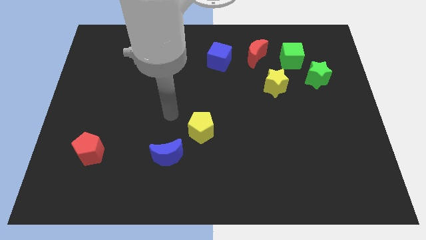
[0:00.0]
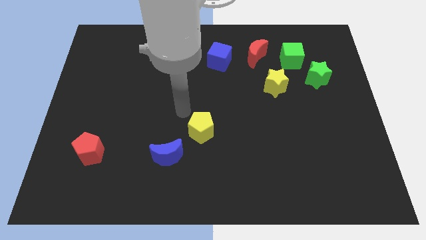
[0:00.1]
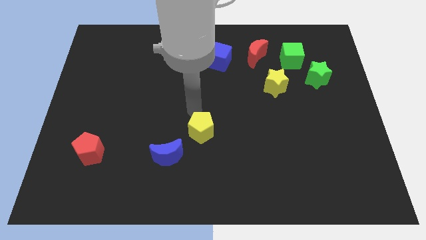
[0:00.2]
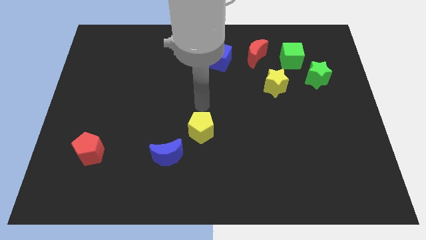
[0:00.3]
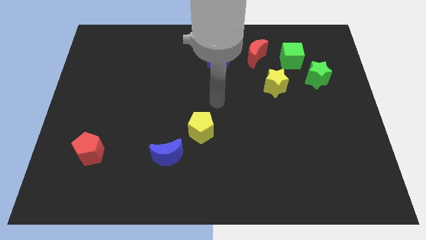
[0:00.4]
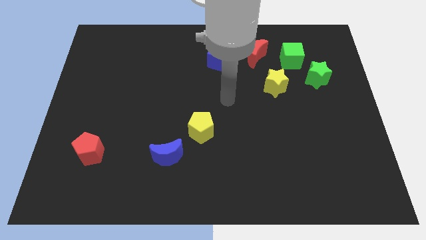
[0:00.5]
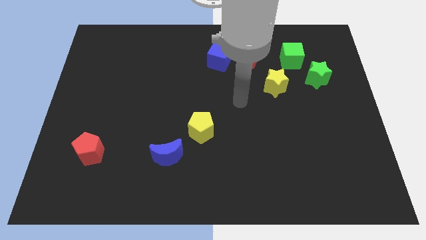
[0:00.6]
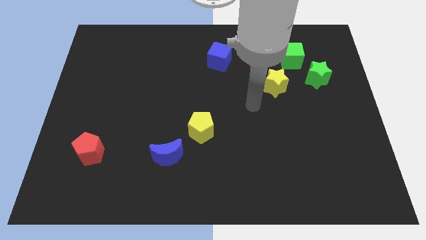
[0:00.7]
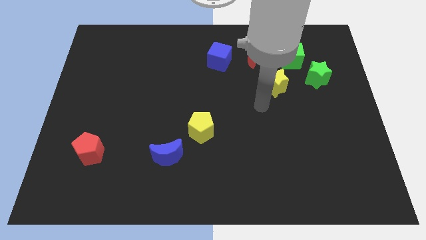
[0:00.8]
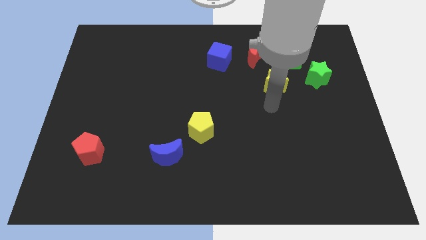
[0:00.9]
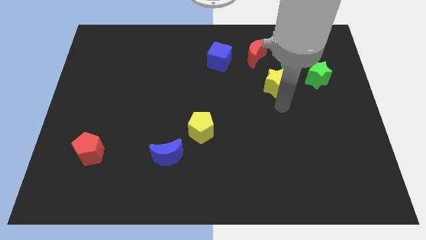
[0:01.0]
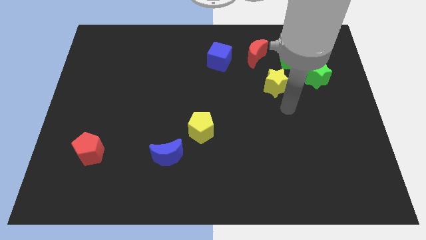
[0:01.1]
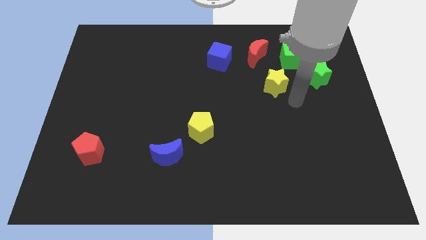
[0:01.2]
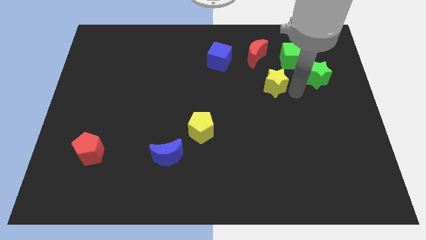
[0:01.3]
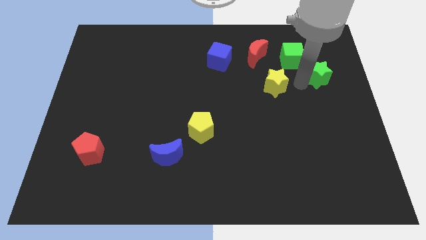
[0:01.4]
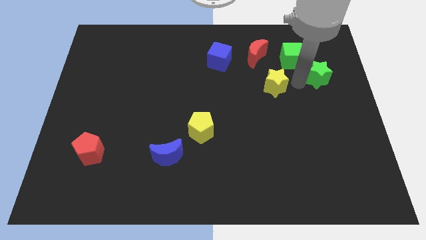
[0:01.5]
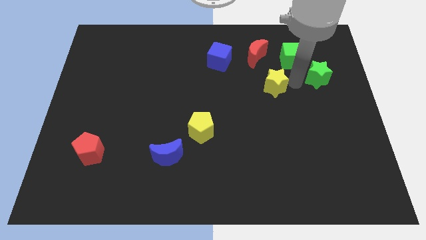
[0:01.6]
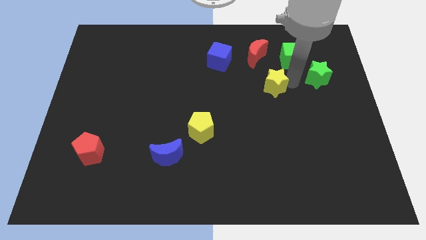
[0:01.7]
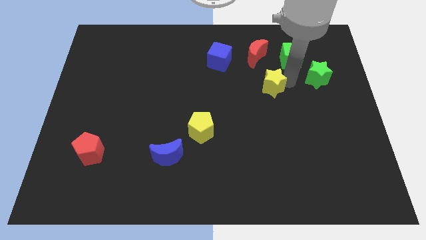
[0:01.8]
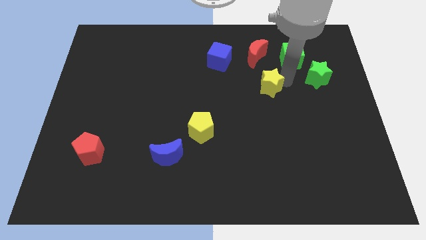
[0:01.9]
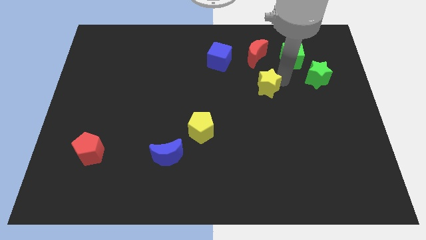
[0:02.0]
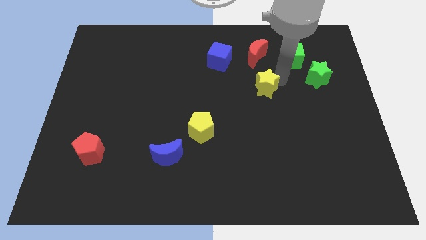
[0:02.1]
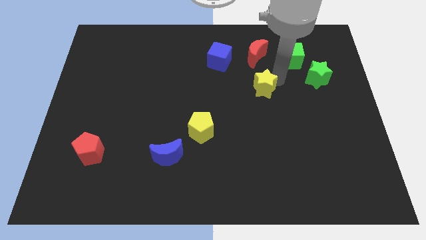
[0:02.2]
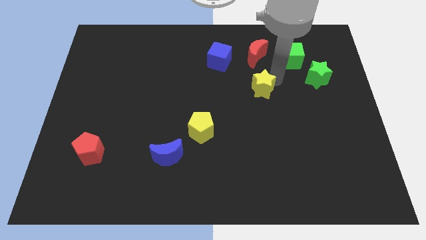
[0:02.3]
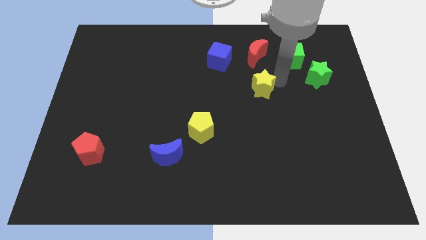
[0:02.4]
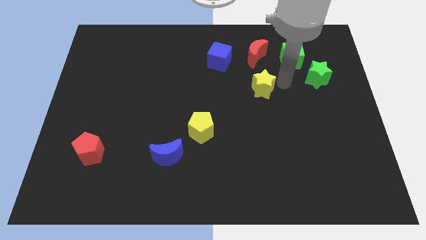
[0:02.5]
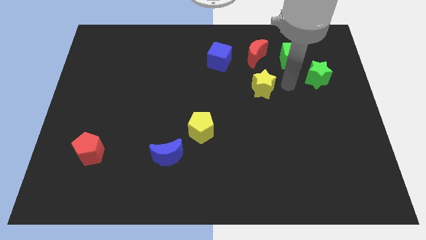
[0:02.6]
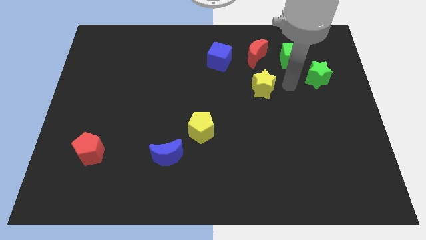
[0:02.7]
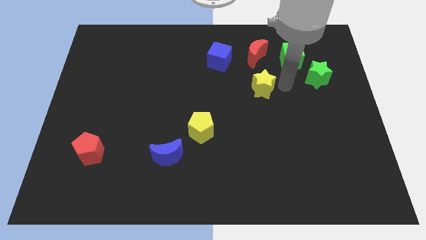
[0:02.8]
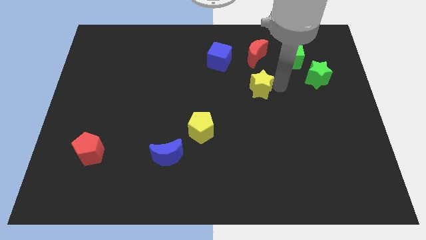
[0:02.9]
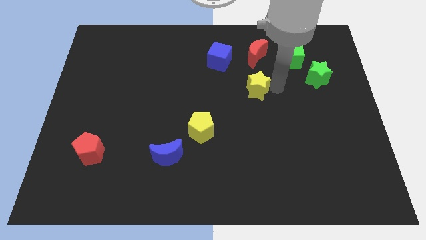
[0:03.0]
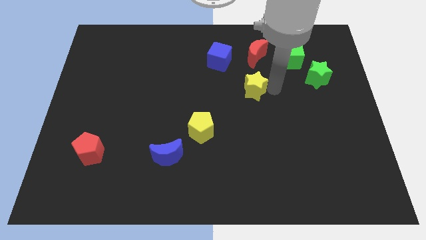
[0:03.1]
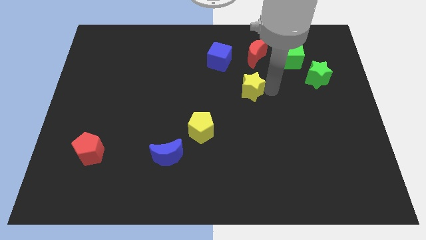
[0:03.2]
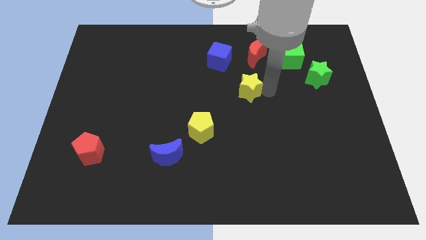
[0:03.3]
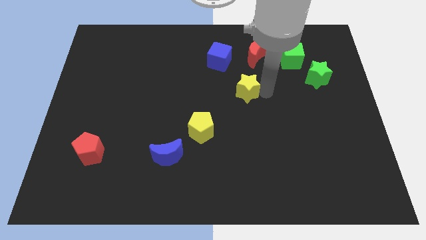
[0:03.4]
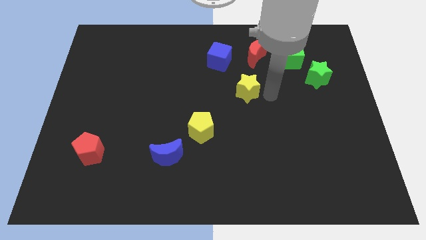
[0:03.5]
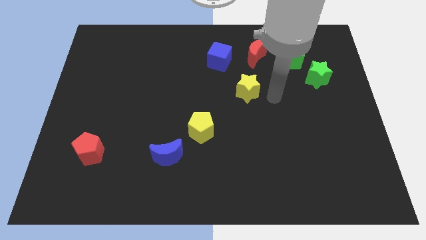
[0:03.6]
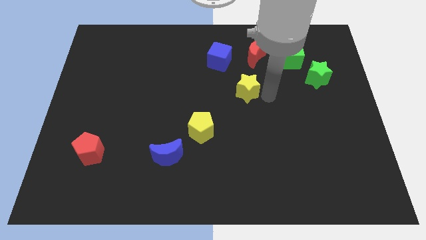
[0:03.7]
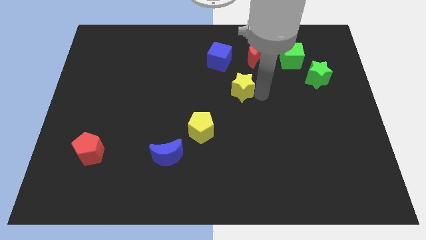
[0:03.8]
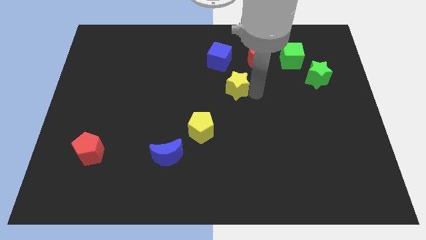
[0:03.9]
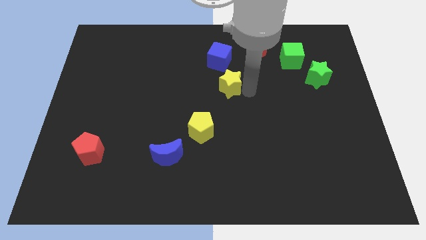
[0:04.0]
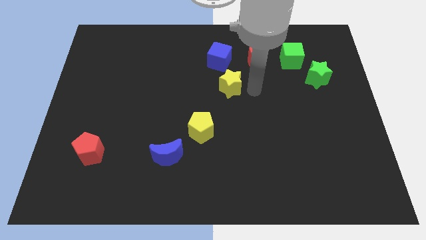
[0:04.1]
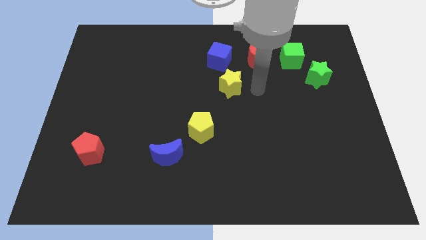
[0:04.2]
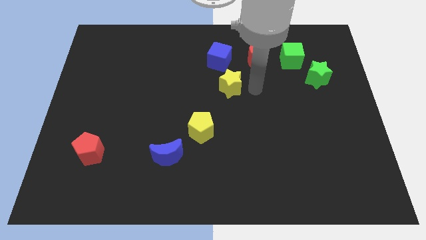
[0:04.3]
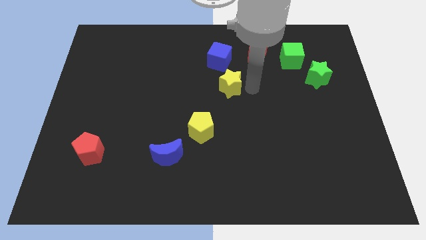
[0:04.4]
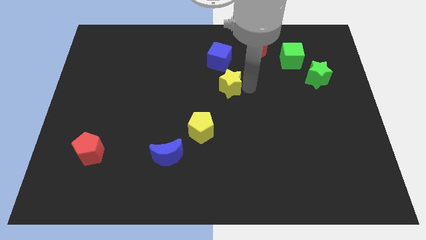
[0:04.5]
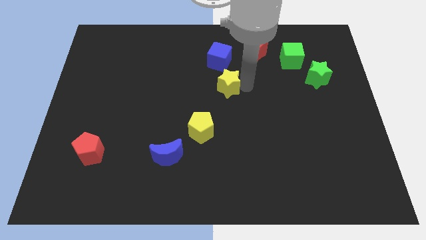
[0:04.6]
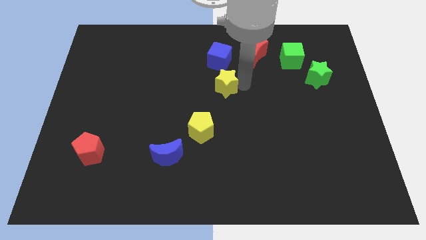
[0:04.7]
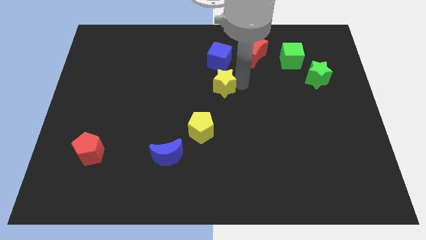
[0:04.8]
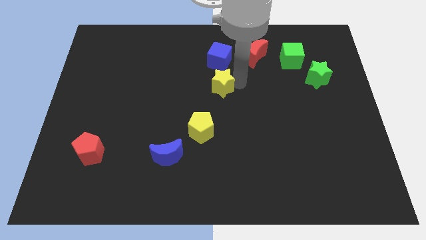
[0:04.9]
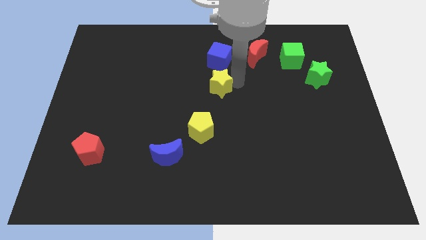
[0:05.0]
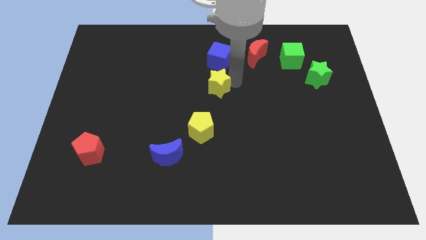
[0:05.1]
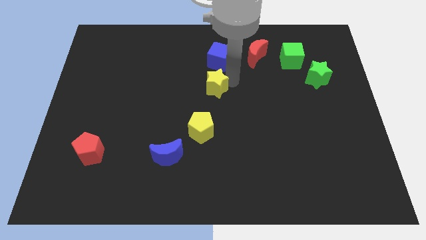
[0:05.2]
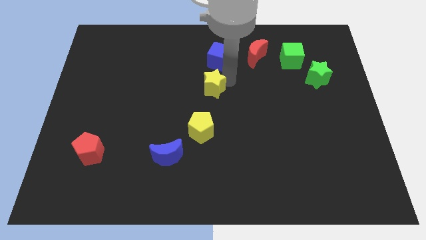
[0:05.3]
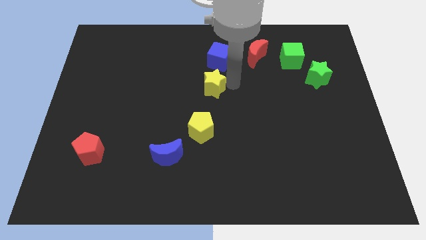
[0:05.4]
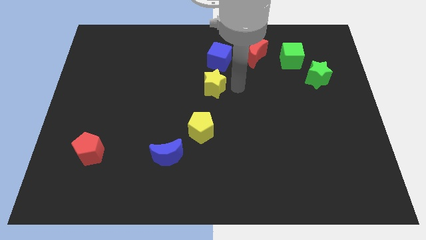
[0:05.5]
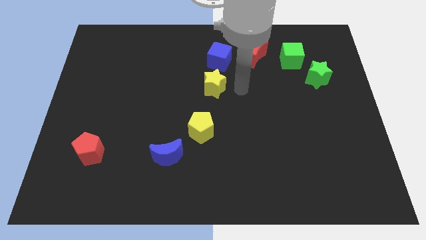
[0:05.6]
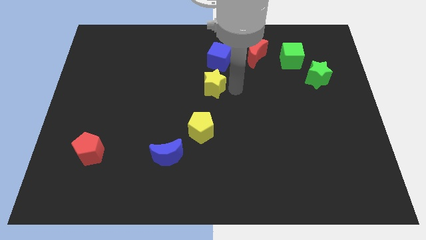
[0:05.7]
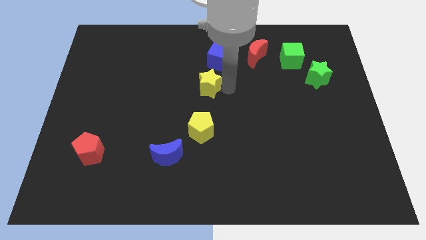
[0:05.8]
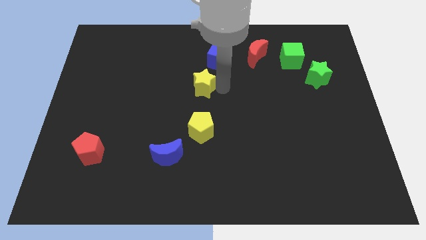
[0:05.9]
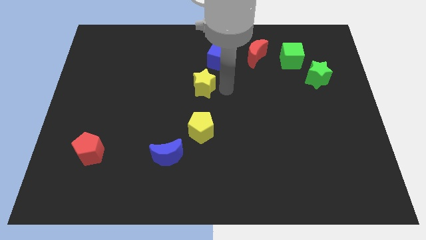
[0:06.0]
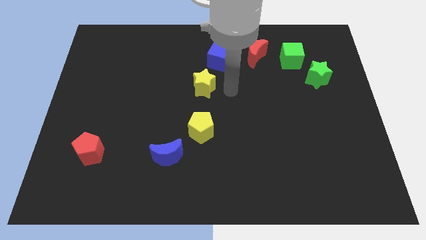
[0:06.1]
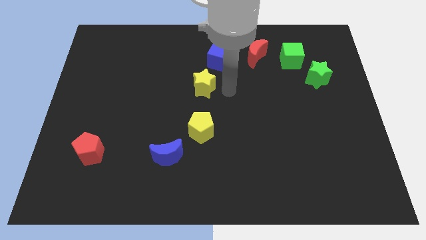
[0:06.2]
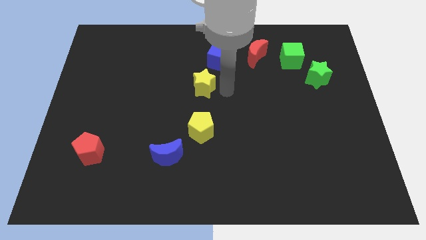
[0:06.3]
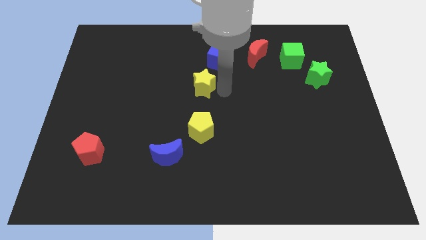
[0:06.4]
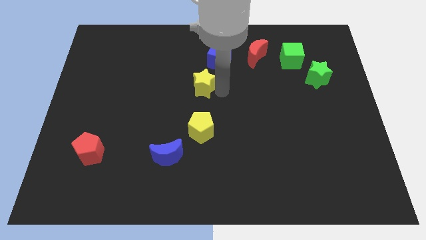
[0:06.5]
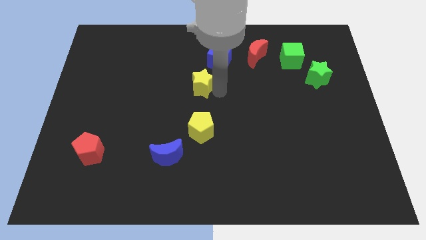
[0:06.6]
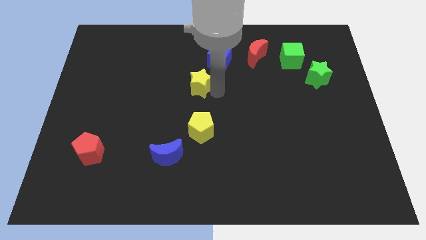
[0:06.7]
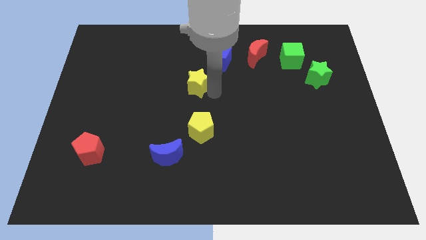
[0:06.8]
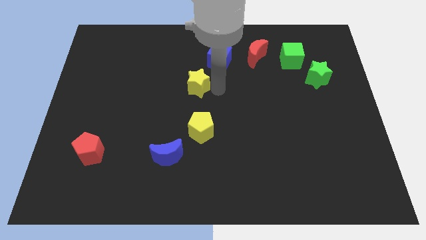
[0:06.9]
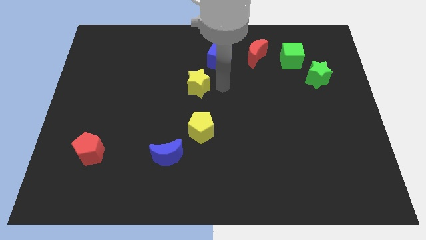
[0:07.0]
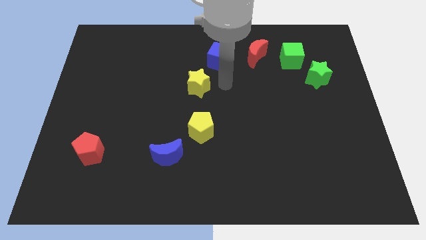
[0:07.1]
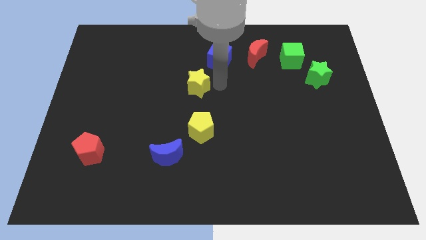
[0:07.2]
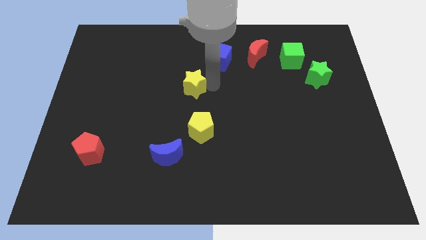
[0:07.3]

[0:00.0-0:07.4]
move the yellow star left

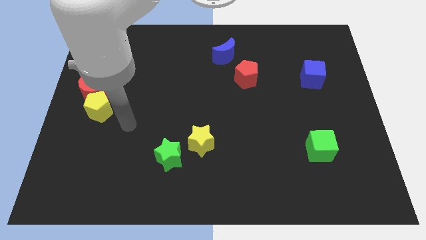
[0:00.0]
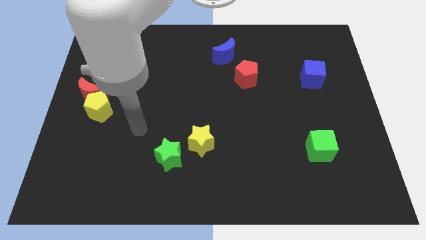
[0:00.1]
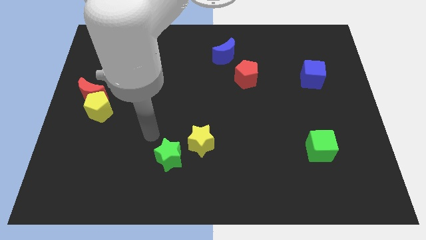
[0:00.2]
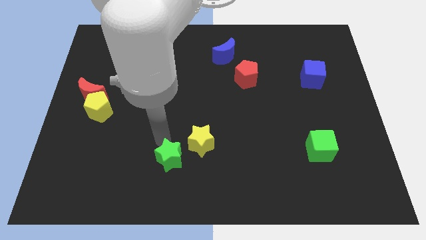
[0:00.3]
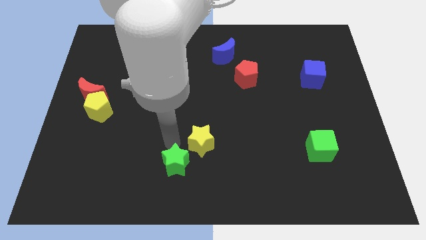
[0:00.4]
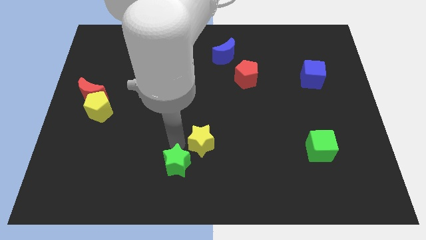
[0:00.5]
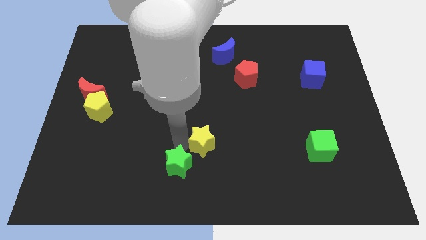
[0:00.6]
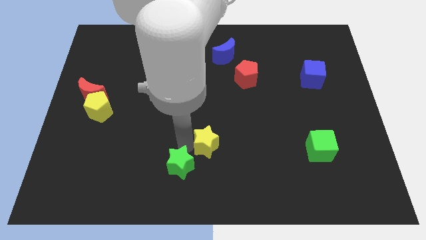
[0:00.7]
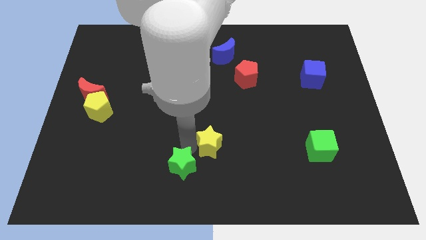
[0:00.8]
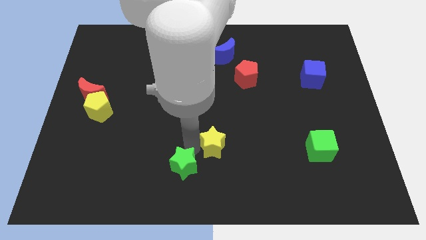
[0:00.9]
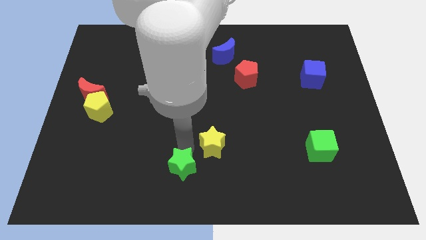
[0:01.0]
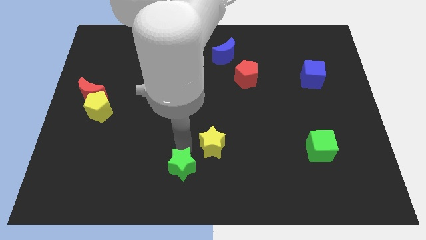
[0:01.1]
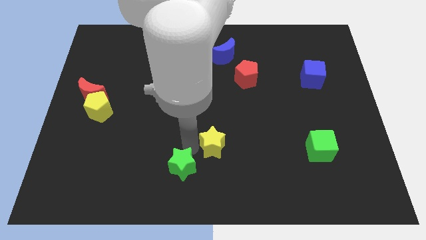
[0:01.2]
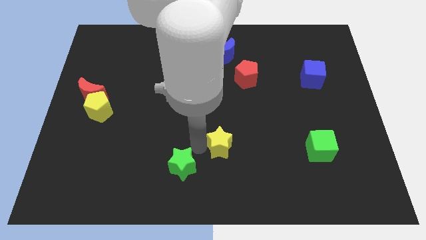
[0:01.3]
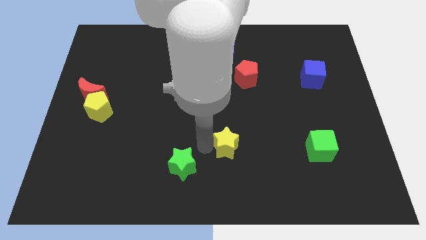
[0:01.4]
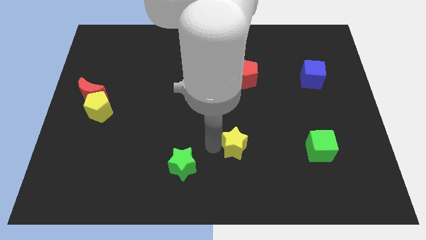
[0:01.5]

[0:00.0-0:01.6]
slightly push the yellow star right
